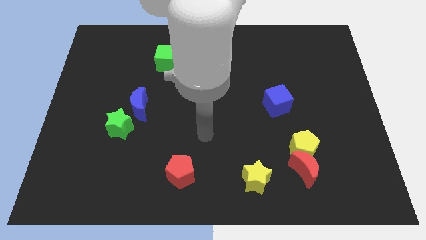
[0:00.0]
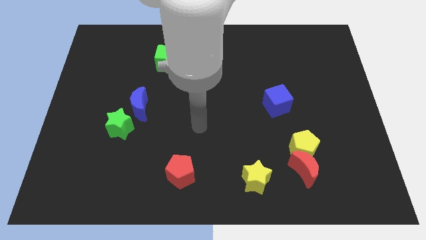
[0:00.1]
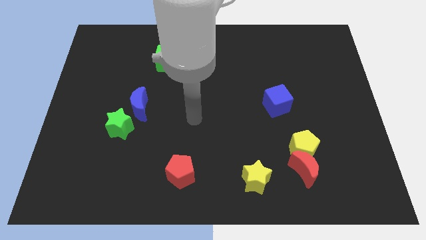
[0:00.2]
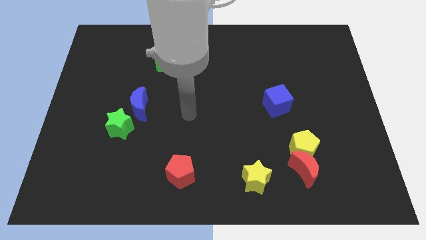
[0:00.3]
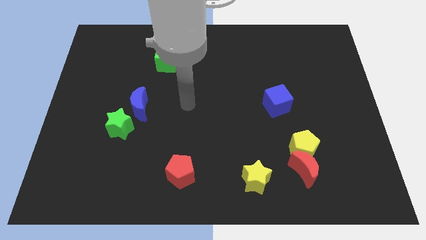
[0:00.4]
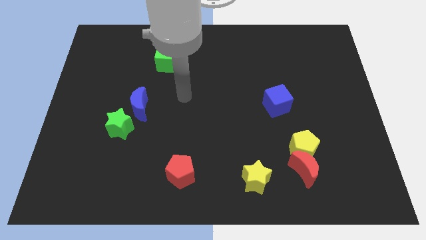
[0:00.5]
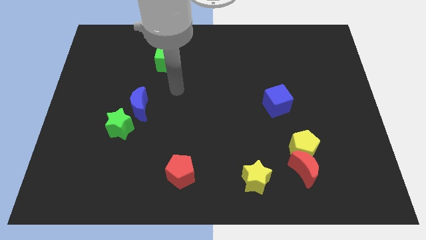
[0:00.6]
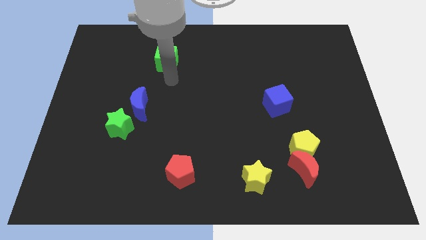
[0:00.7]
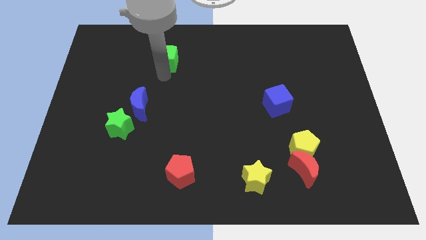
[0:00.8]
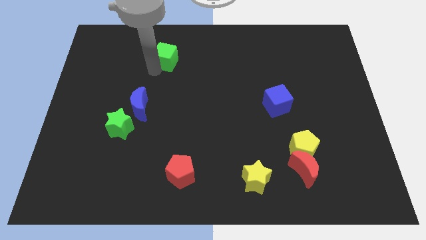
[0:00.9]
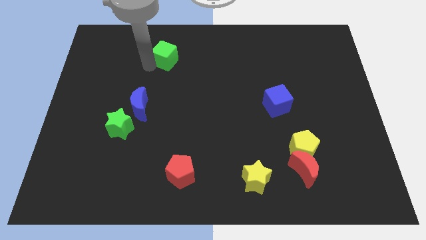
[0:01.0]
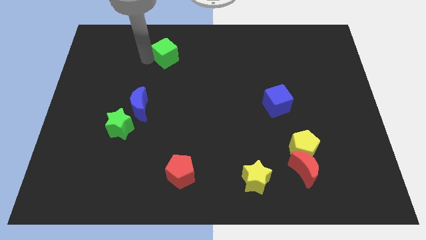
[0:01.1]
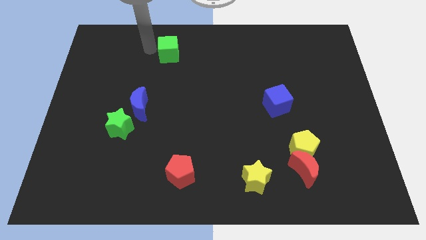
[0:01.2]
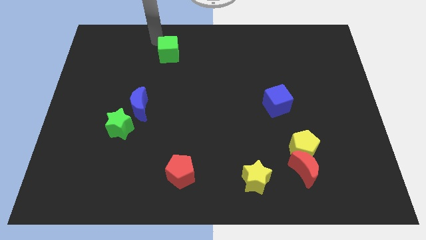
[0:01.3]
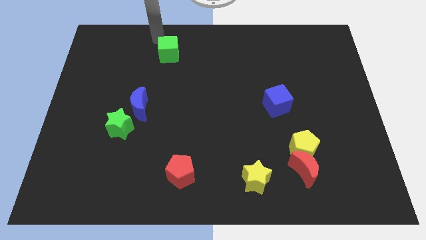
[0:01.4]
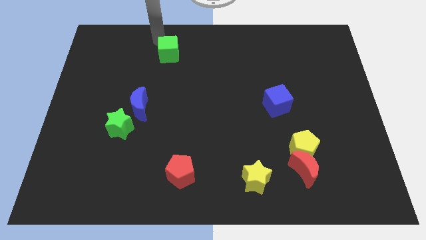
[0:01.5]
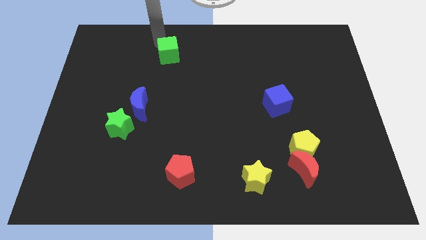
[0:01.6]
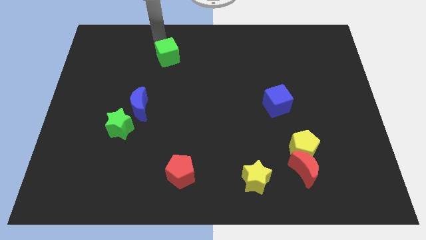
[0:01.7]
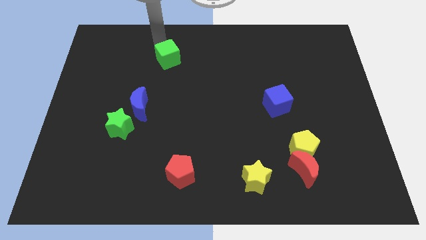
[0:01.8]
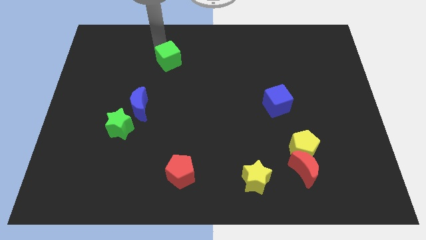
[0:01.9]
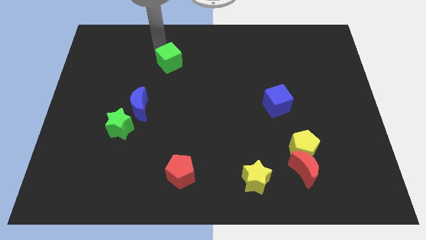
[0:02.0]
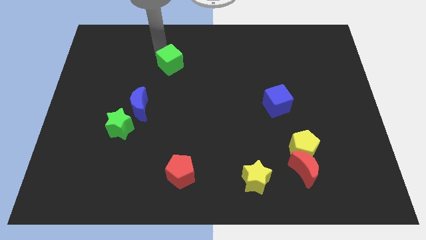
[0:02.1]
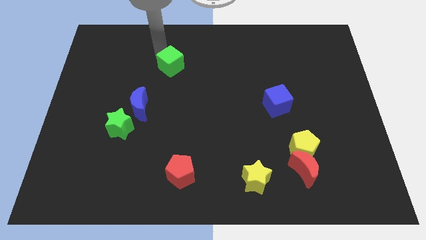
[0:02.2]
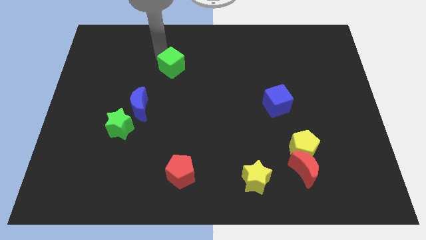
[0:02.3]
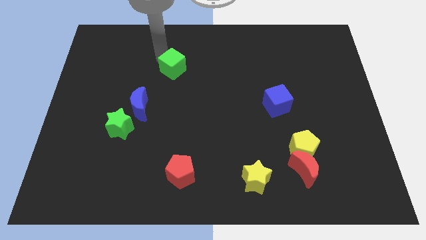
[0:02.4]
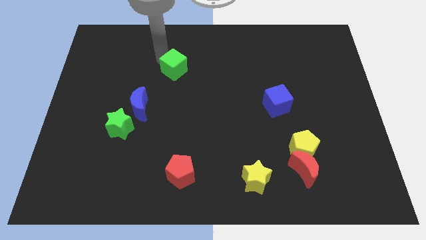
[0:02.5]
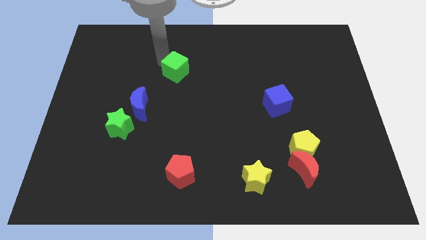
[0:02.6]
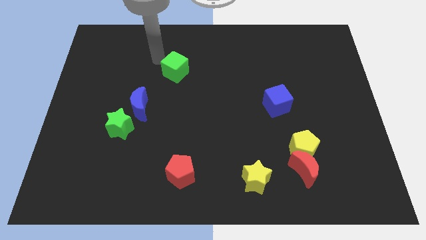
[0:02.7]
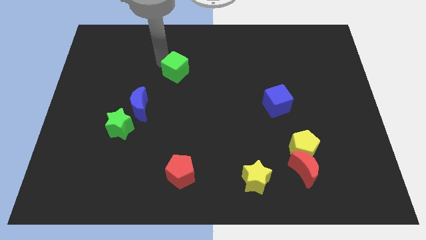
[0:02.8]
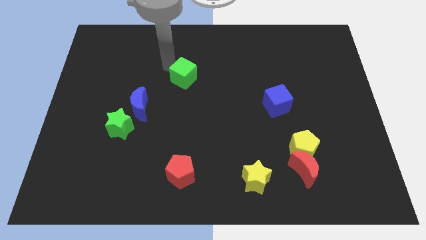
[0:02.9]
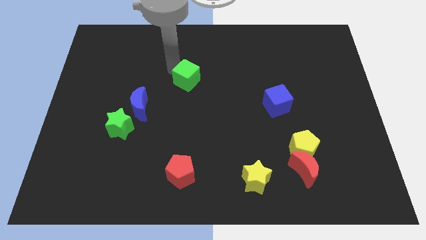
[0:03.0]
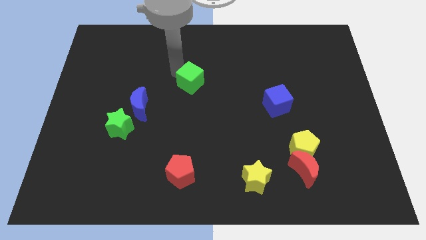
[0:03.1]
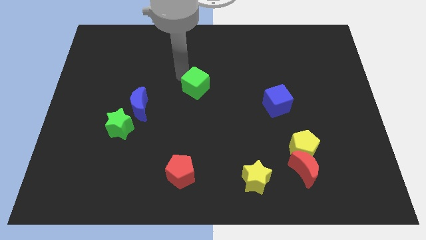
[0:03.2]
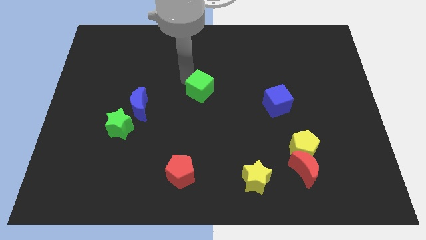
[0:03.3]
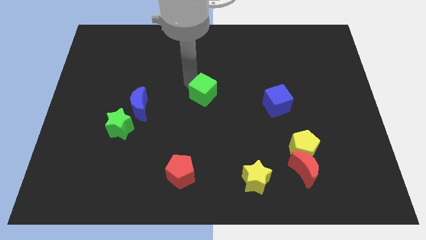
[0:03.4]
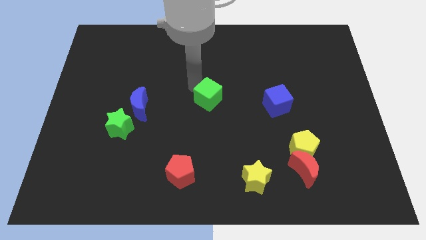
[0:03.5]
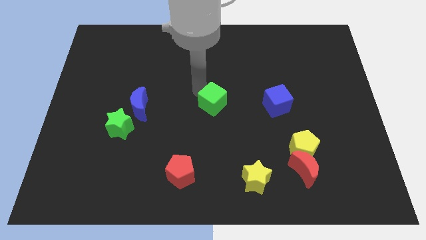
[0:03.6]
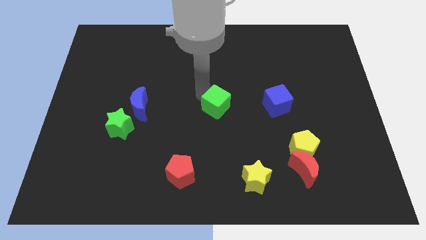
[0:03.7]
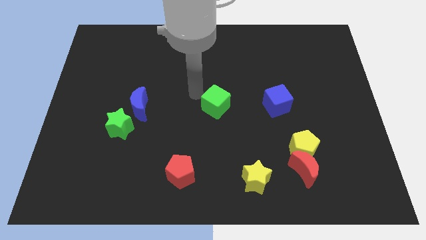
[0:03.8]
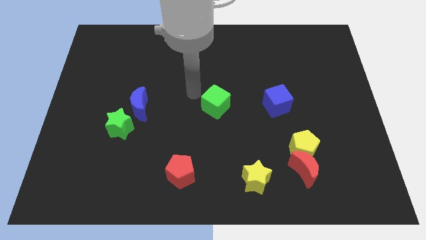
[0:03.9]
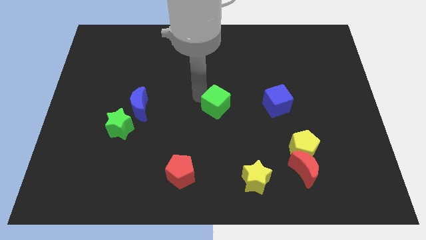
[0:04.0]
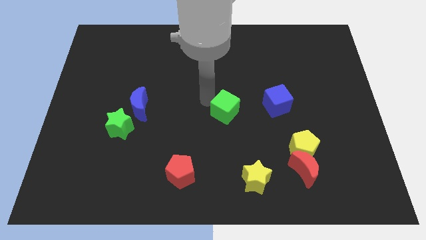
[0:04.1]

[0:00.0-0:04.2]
push the green cube diagonally down and right

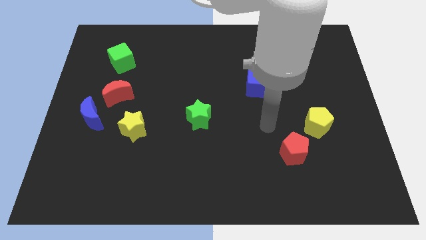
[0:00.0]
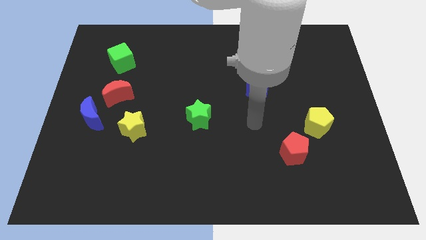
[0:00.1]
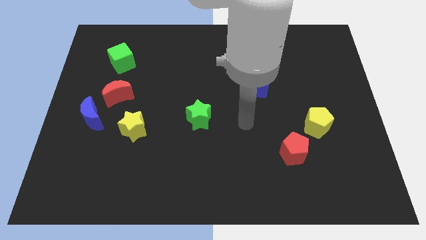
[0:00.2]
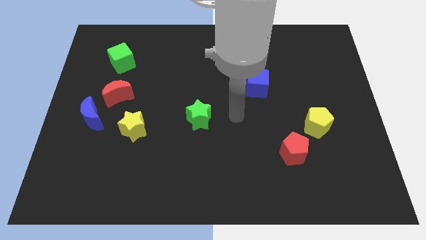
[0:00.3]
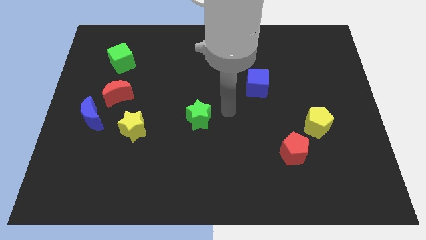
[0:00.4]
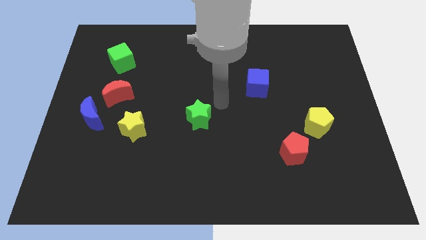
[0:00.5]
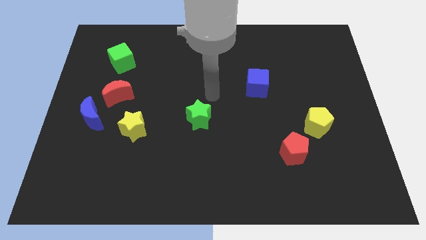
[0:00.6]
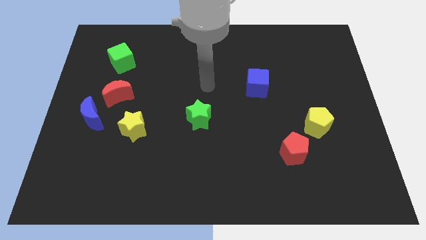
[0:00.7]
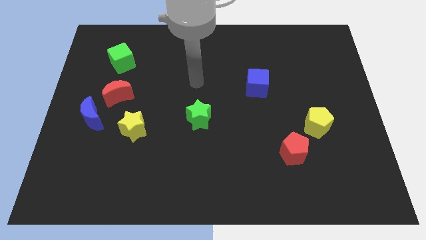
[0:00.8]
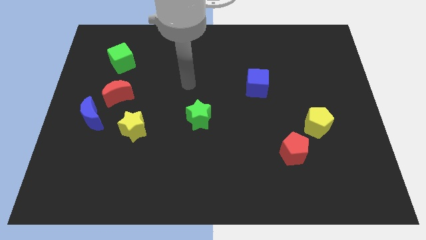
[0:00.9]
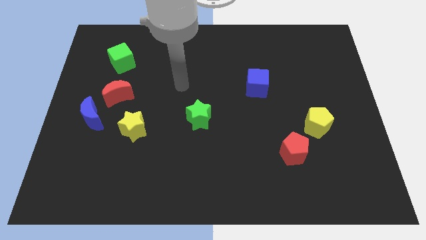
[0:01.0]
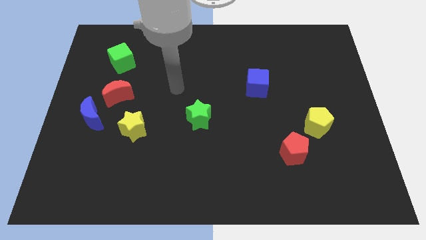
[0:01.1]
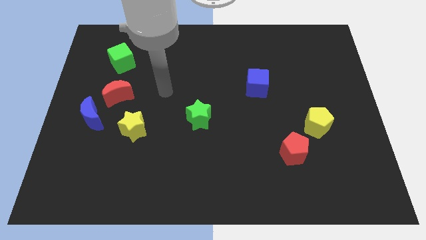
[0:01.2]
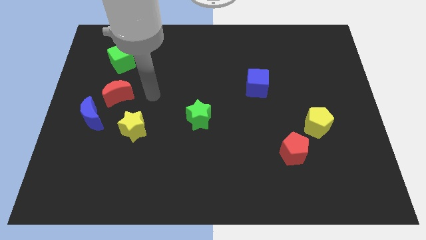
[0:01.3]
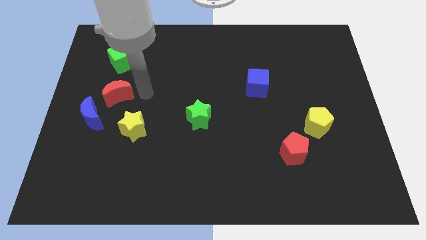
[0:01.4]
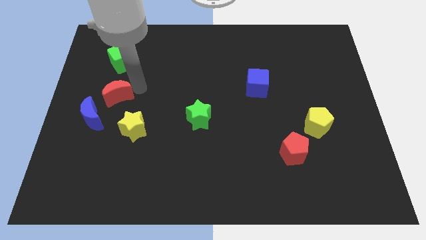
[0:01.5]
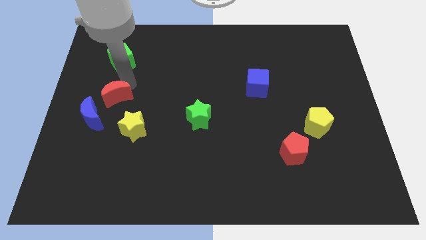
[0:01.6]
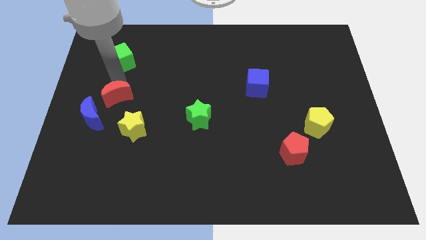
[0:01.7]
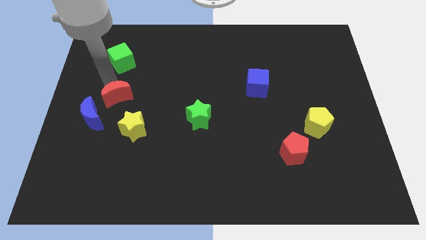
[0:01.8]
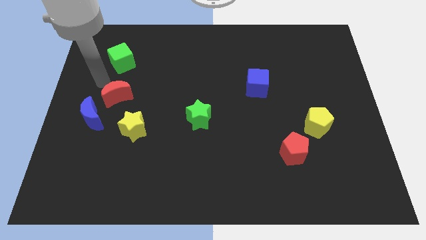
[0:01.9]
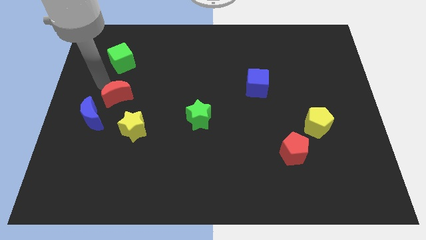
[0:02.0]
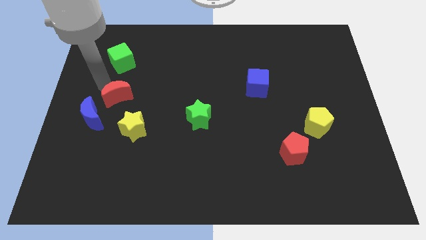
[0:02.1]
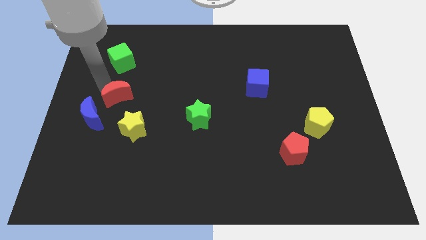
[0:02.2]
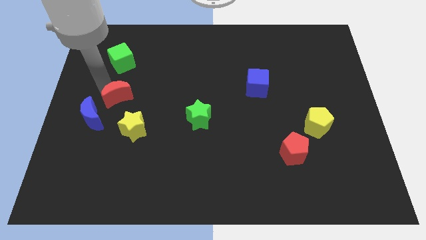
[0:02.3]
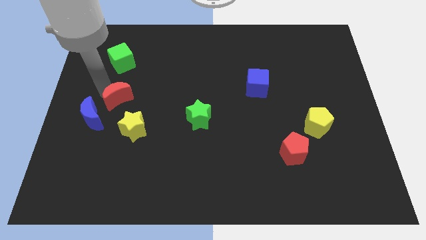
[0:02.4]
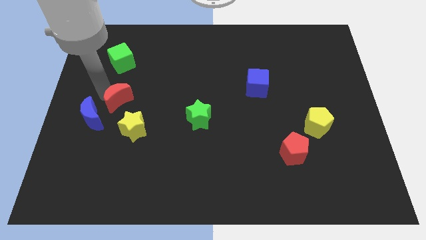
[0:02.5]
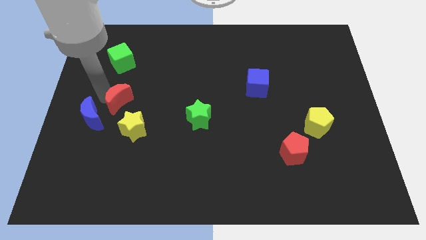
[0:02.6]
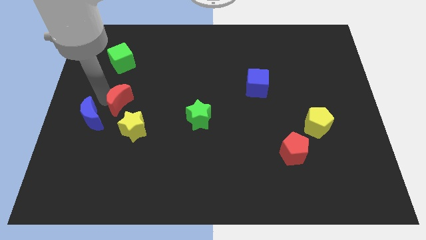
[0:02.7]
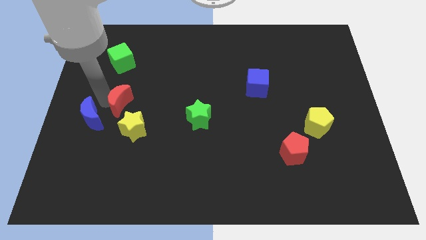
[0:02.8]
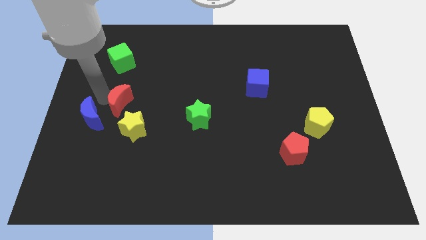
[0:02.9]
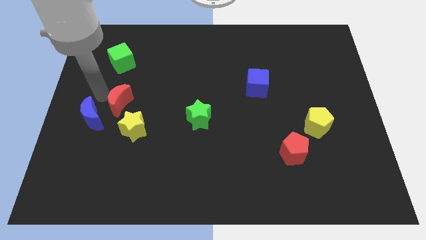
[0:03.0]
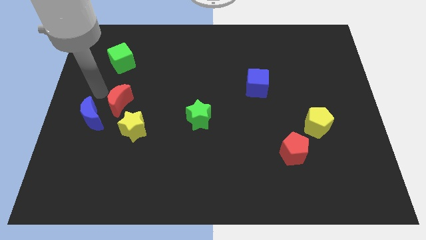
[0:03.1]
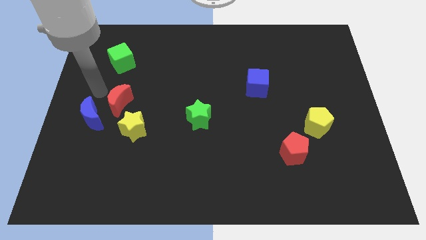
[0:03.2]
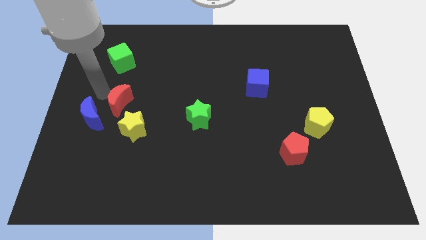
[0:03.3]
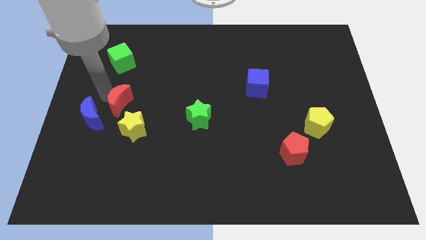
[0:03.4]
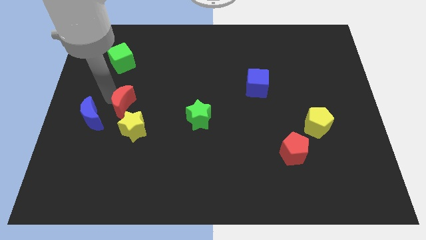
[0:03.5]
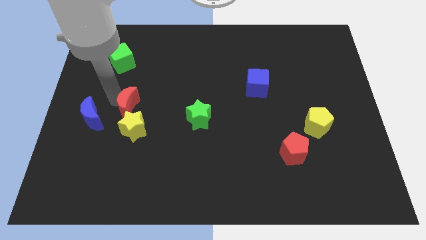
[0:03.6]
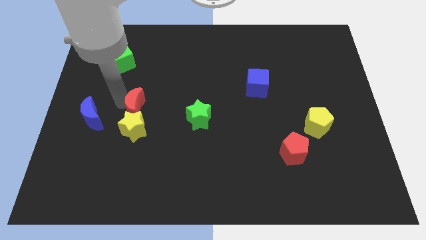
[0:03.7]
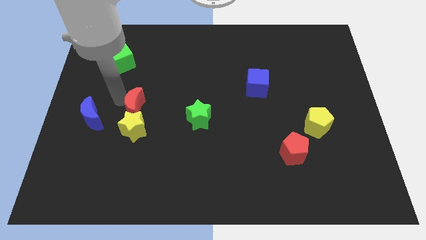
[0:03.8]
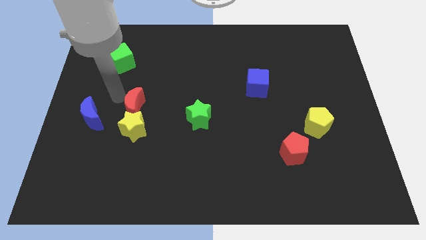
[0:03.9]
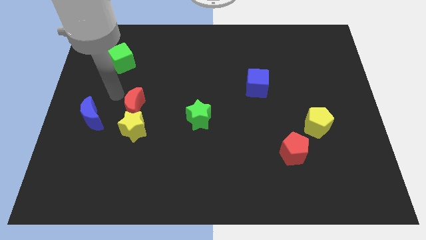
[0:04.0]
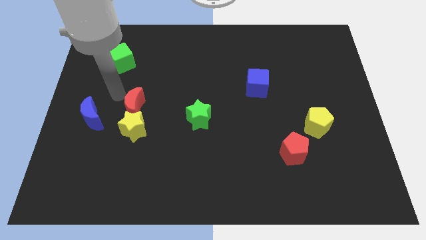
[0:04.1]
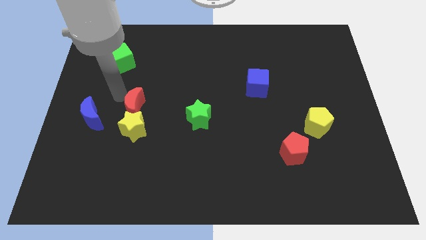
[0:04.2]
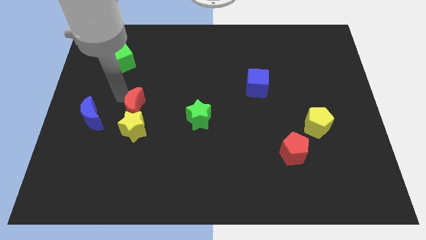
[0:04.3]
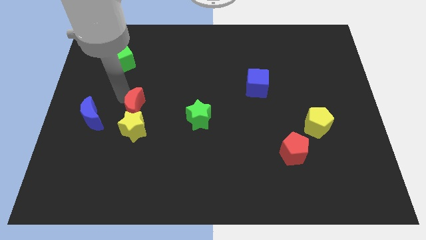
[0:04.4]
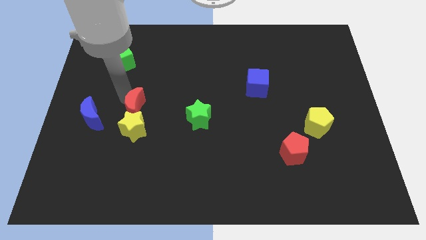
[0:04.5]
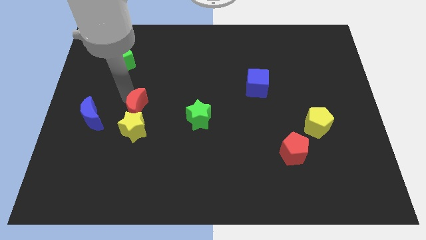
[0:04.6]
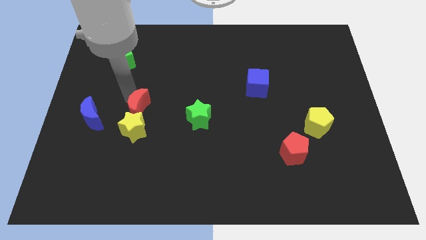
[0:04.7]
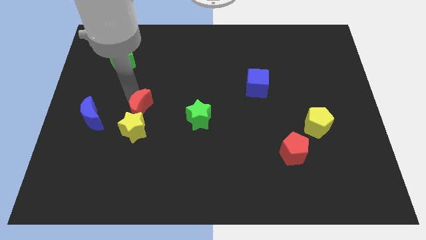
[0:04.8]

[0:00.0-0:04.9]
slightly push the red moon diagonally down and right
